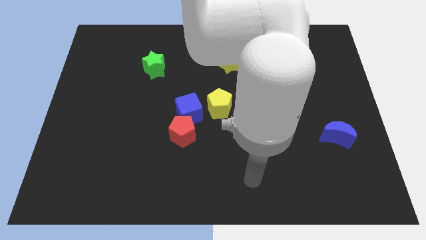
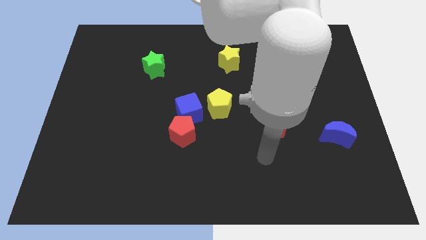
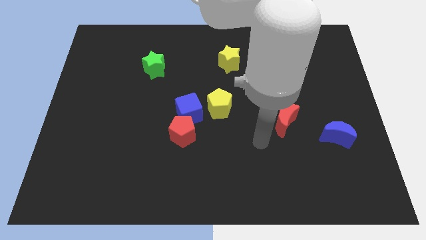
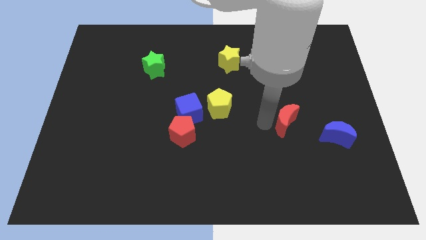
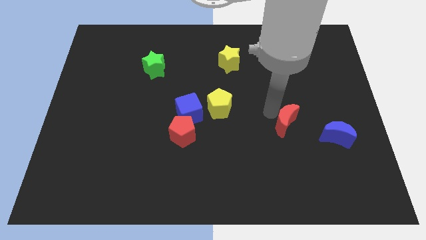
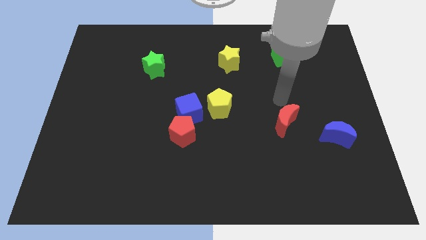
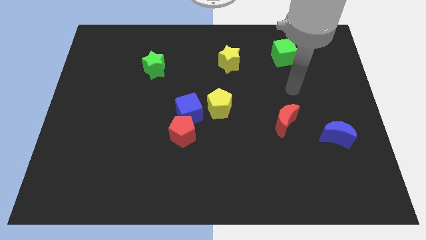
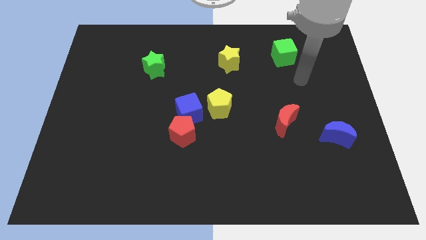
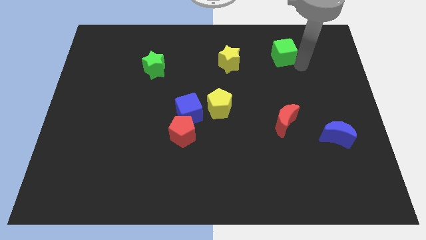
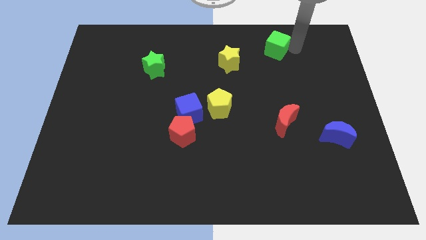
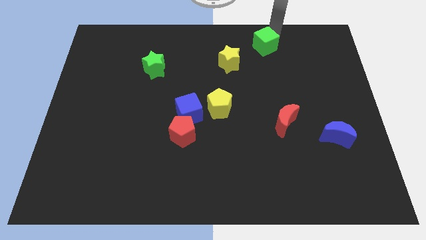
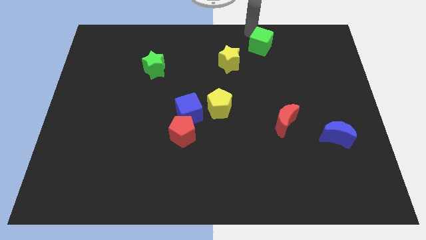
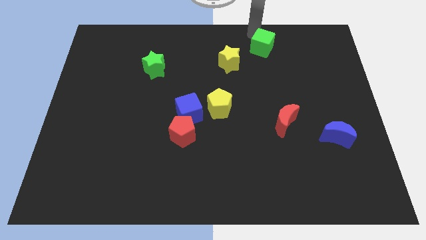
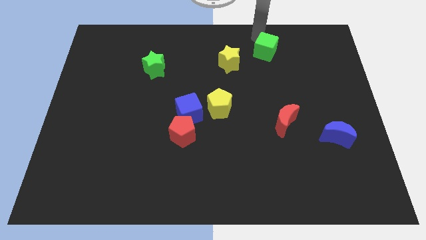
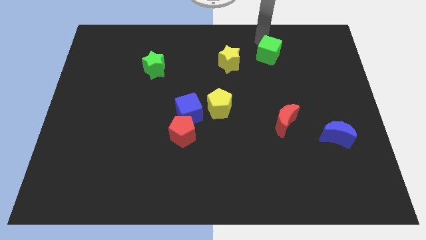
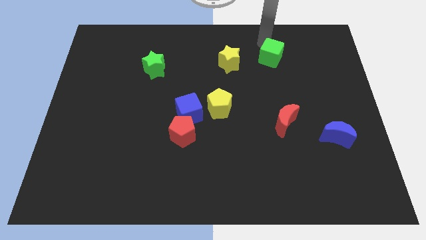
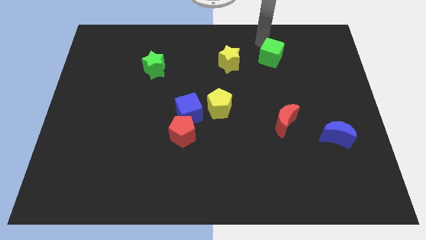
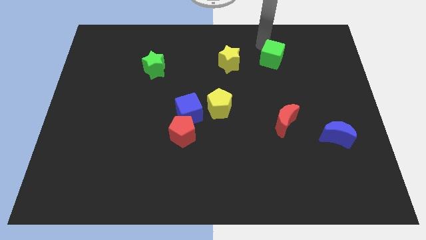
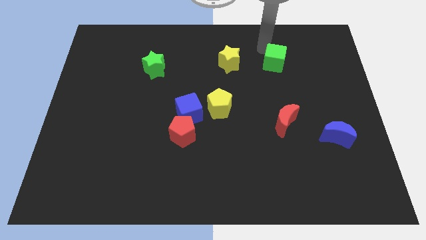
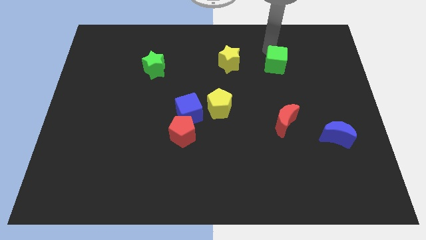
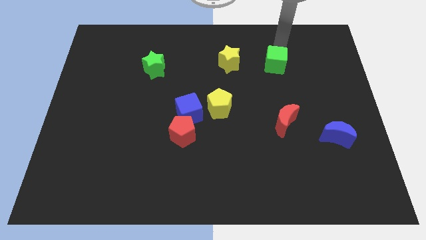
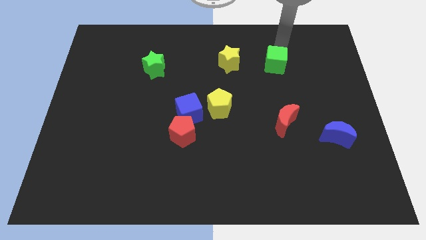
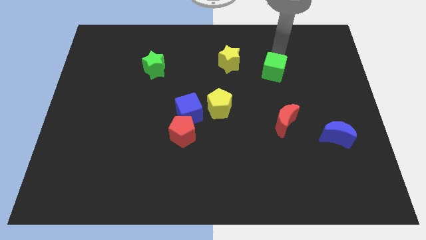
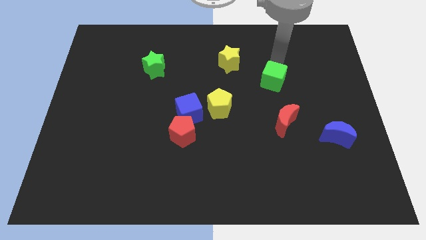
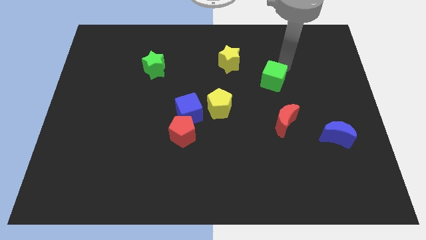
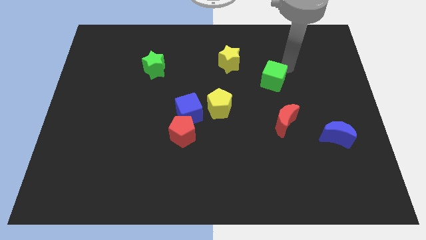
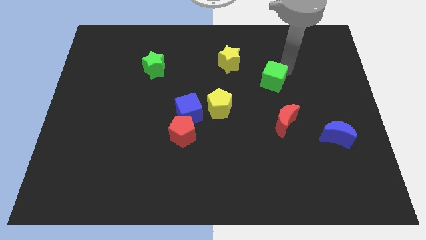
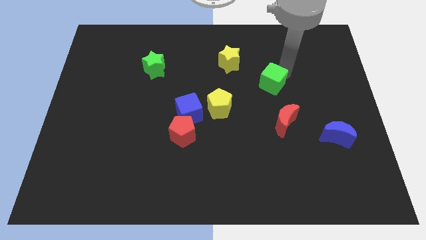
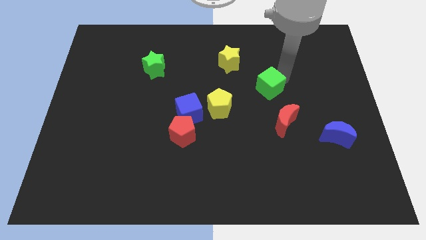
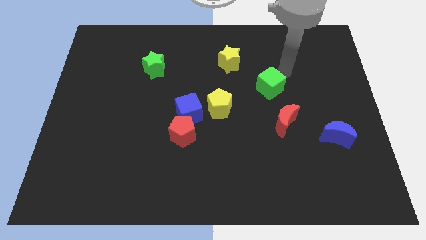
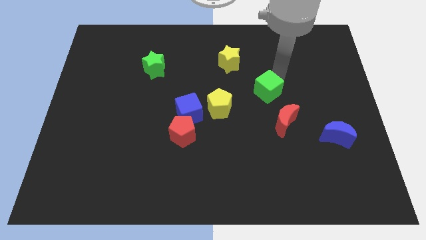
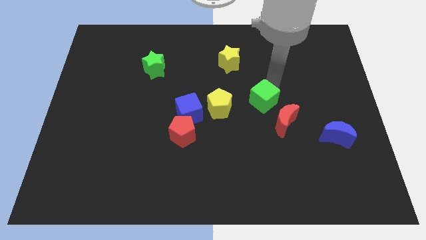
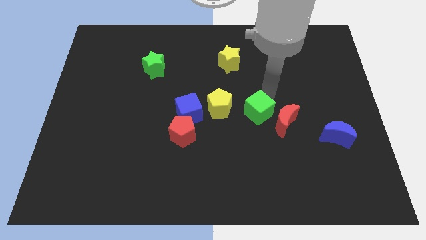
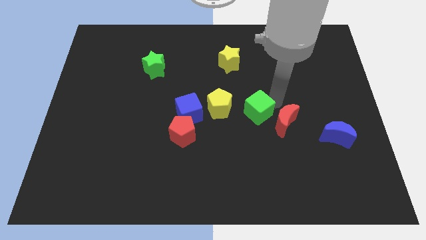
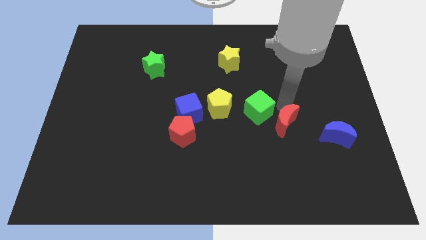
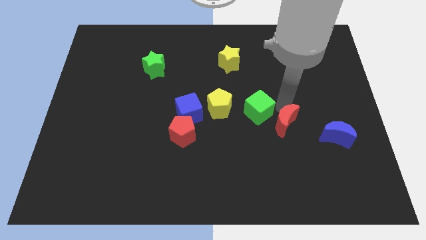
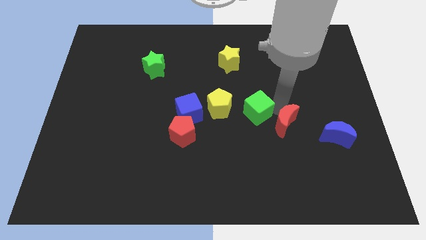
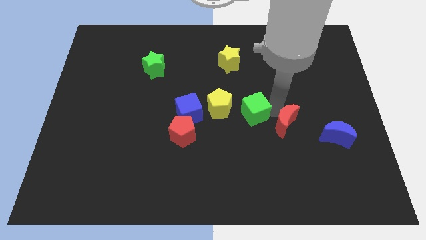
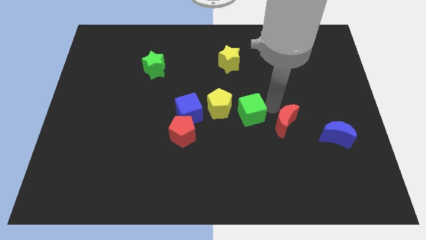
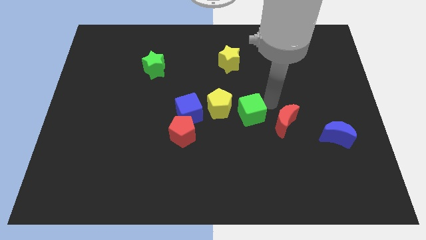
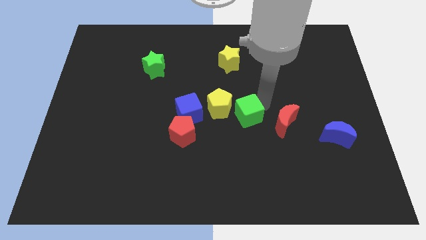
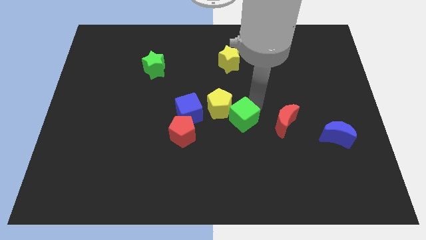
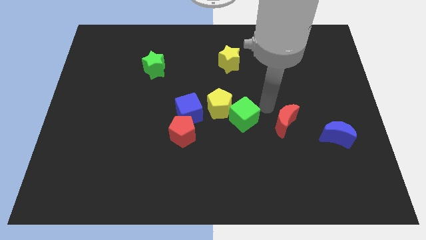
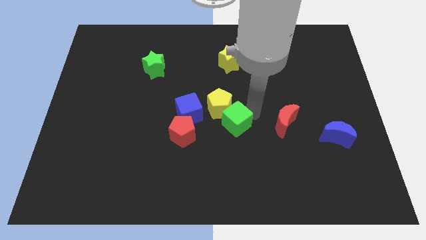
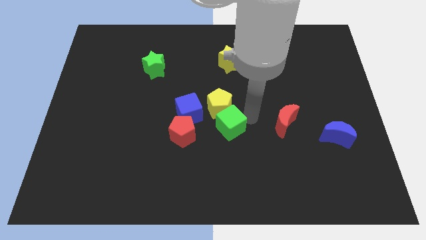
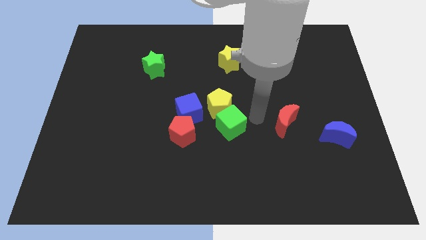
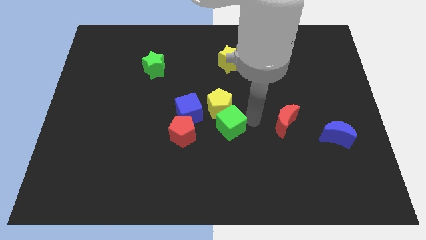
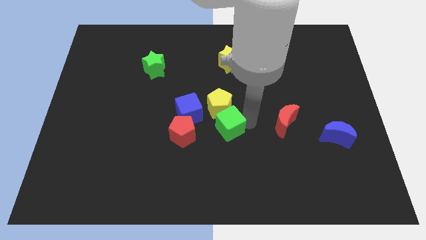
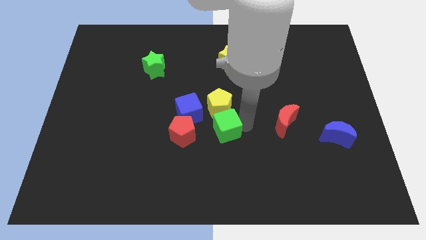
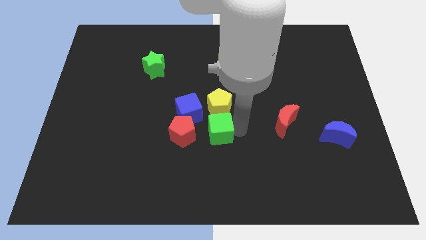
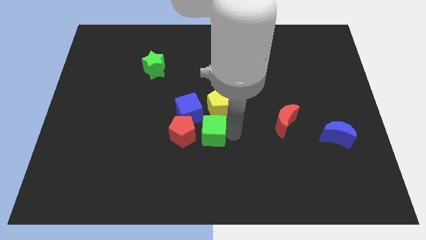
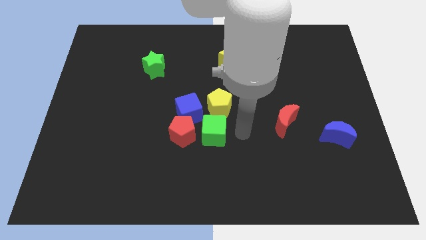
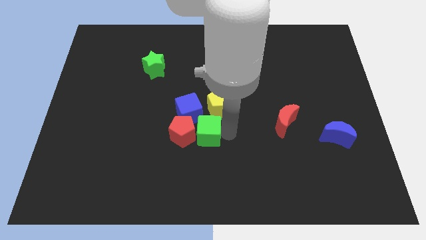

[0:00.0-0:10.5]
push the green cube close to the red pentagon

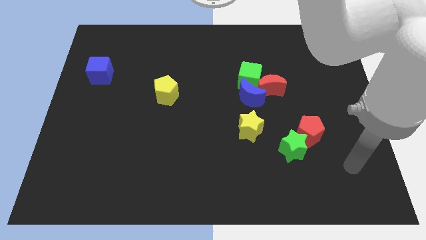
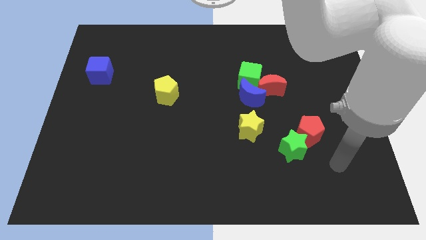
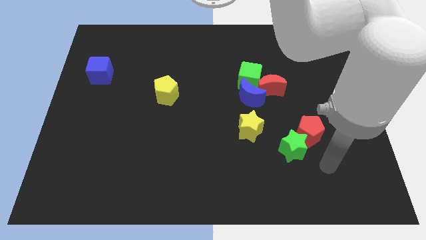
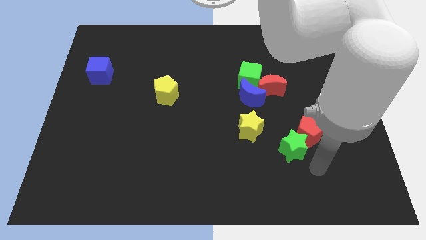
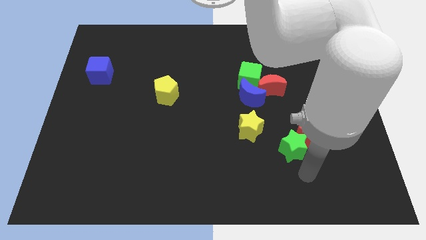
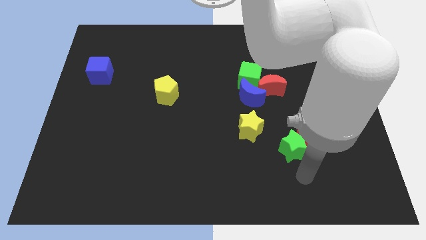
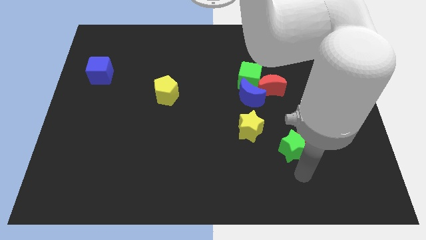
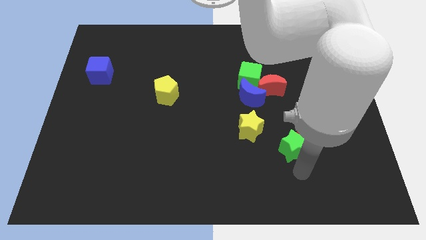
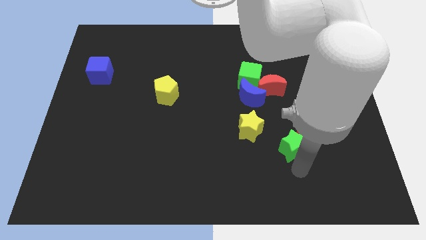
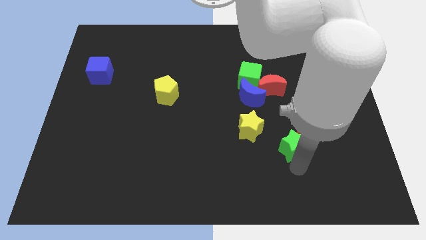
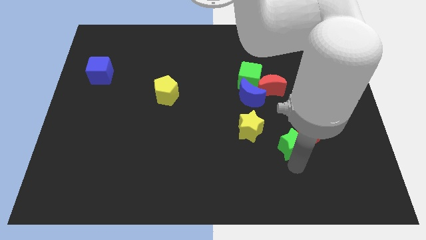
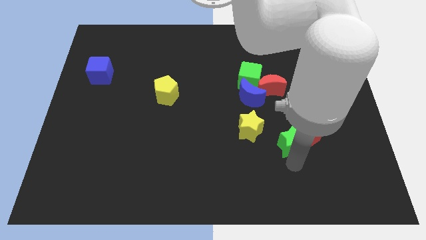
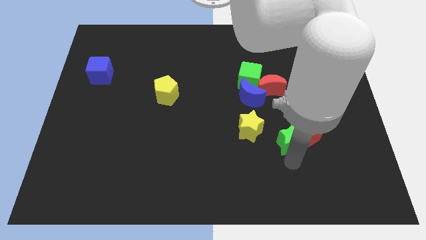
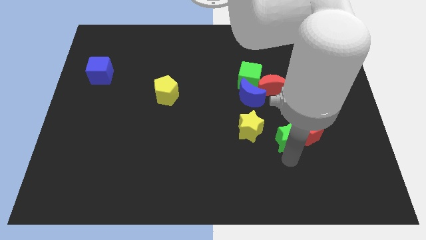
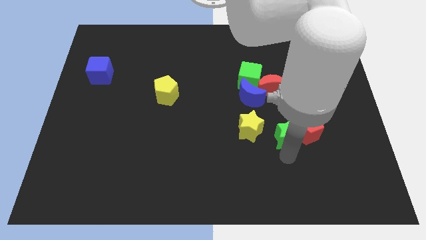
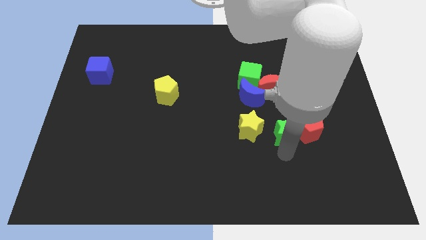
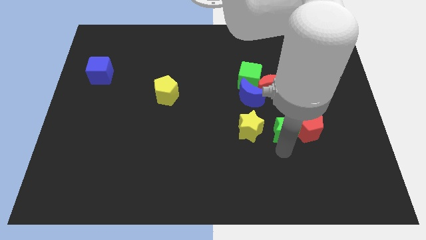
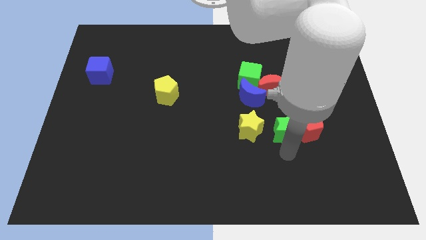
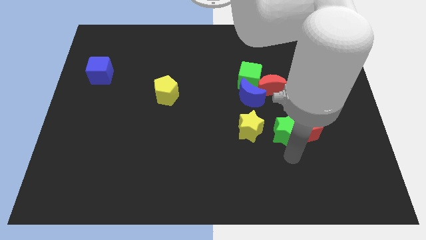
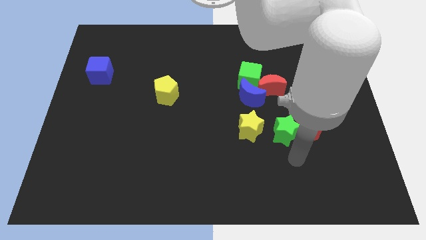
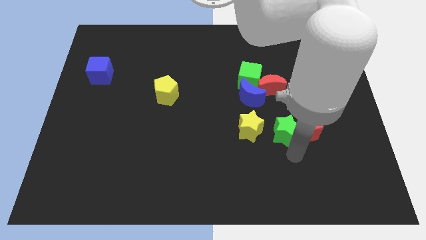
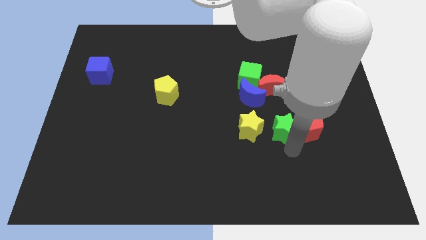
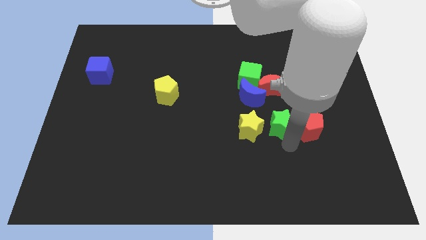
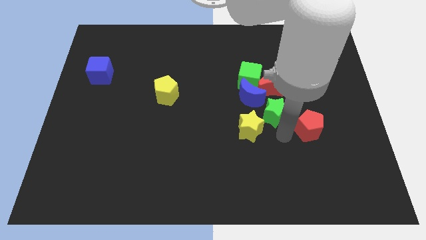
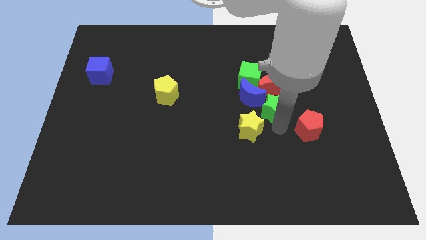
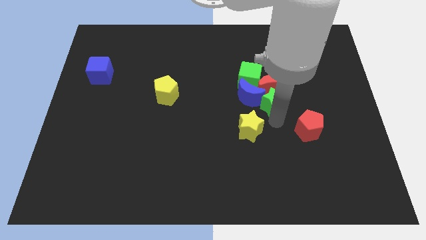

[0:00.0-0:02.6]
slide the green star next to the red moon
